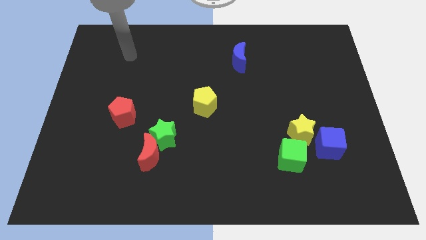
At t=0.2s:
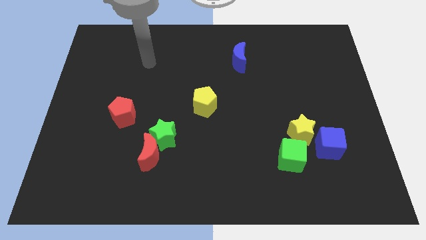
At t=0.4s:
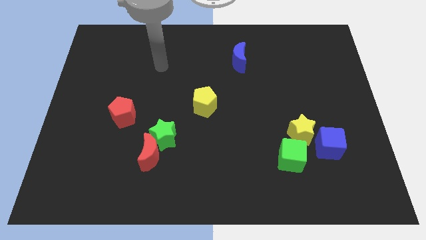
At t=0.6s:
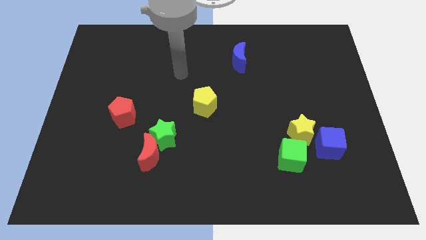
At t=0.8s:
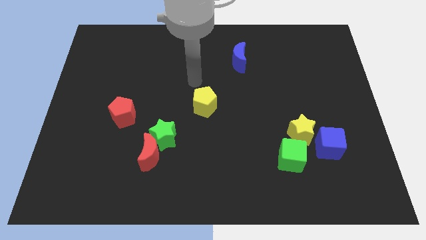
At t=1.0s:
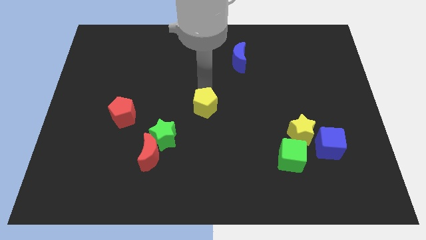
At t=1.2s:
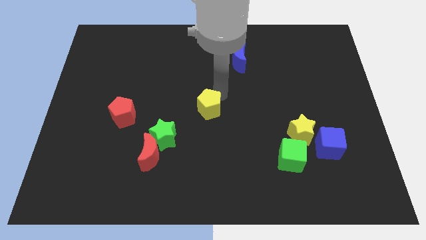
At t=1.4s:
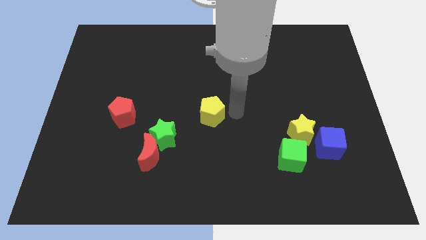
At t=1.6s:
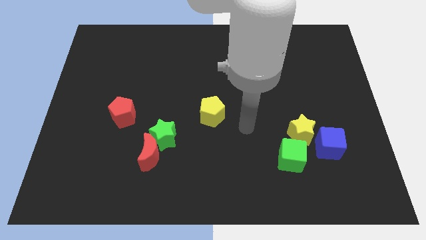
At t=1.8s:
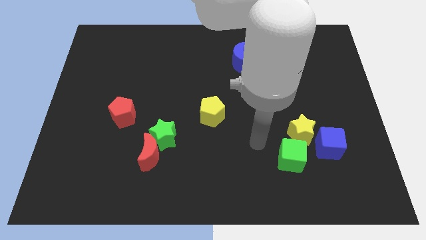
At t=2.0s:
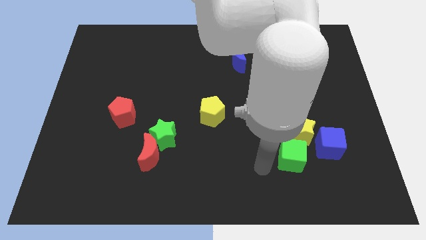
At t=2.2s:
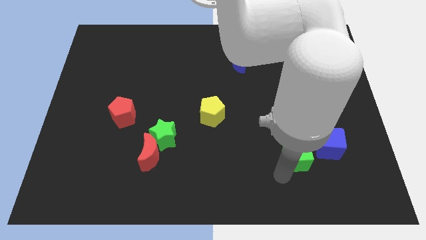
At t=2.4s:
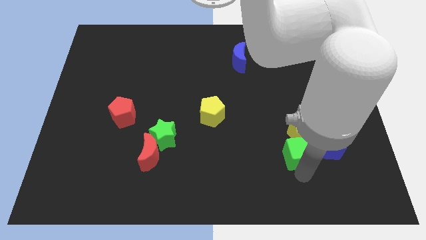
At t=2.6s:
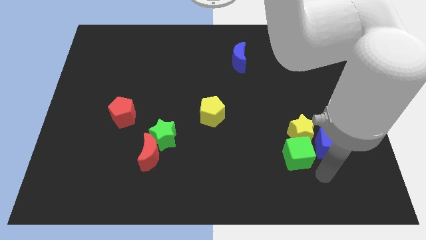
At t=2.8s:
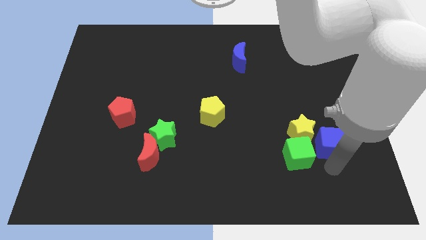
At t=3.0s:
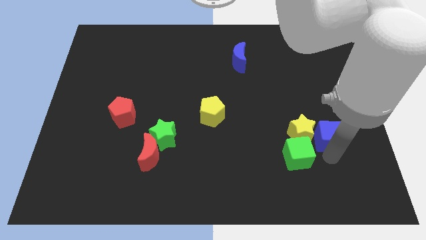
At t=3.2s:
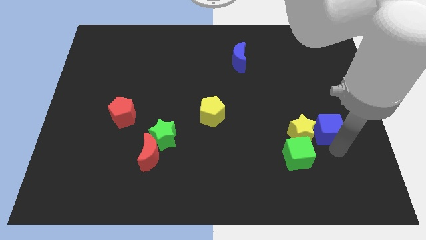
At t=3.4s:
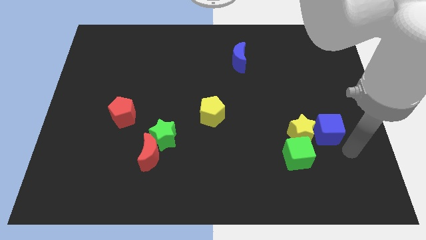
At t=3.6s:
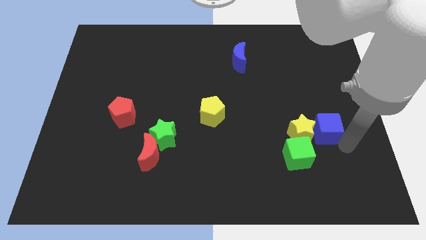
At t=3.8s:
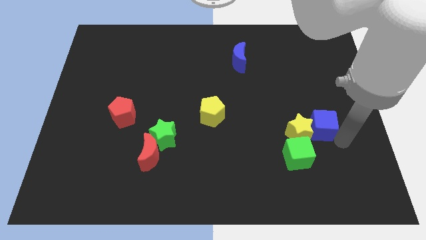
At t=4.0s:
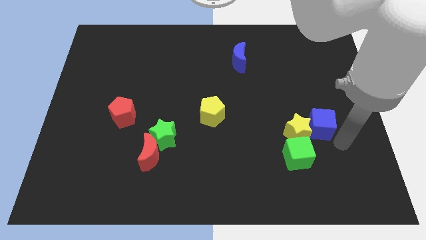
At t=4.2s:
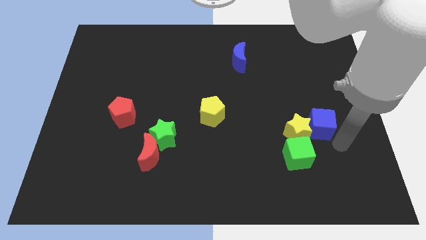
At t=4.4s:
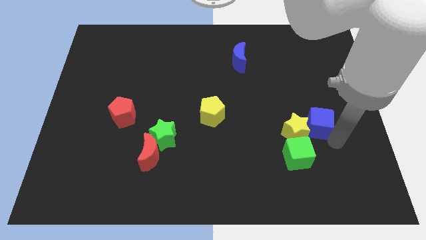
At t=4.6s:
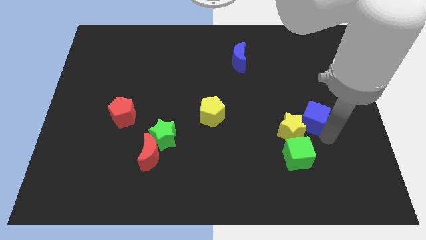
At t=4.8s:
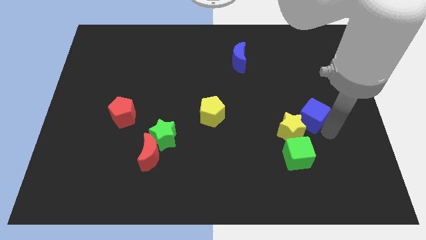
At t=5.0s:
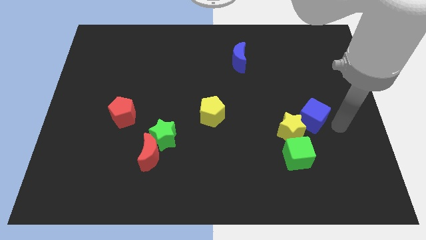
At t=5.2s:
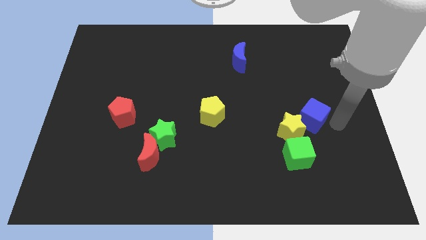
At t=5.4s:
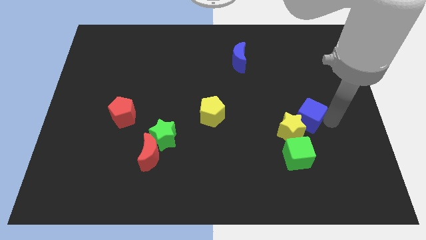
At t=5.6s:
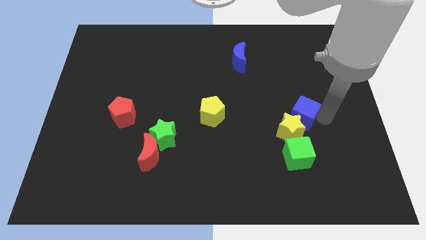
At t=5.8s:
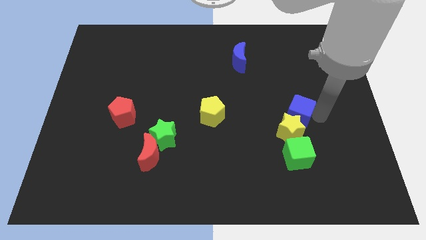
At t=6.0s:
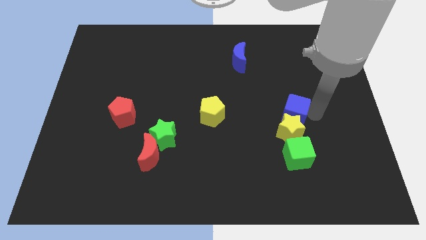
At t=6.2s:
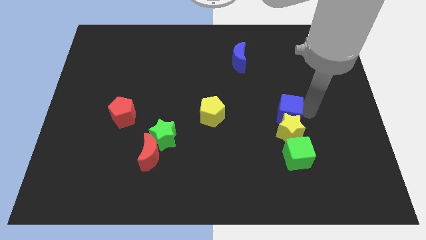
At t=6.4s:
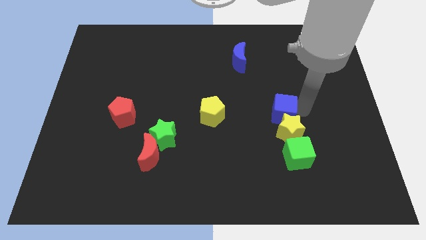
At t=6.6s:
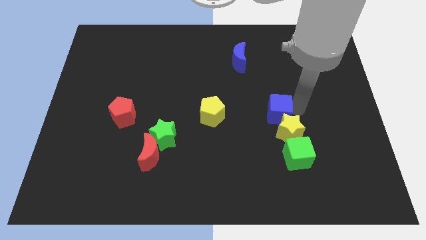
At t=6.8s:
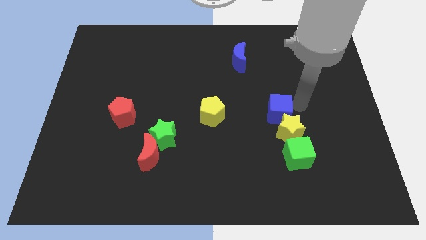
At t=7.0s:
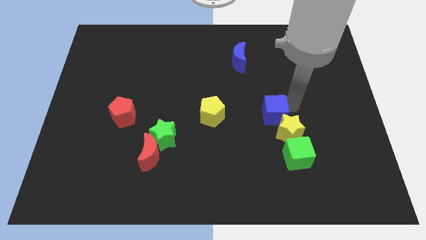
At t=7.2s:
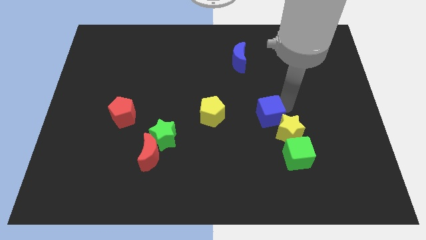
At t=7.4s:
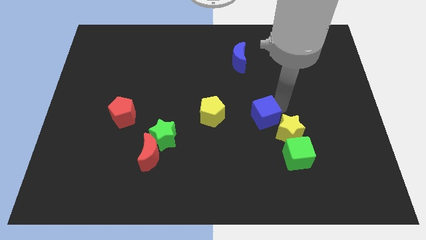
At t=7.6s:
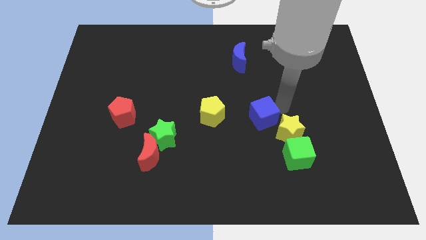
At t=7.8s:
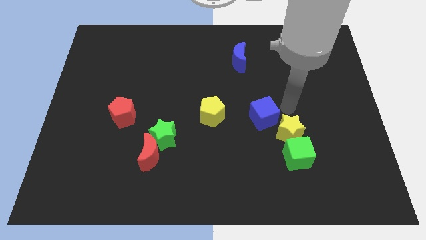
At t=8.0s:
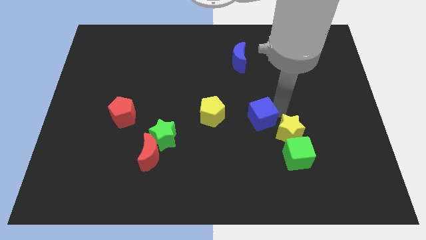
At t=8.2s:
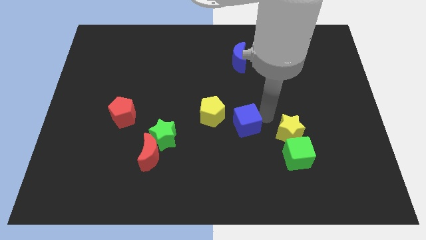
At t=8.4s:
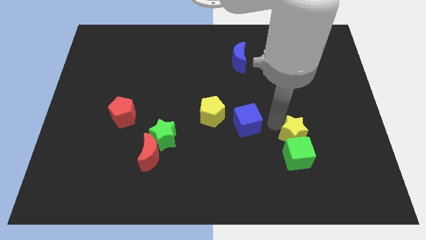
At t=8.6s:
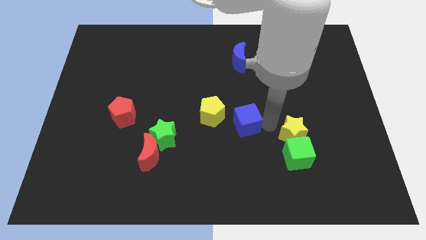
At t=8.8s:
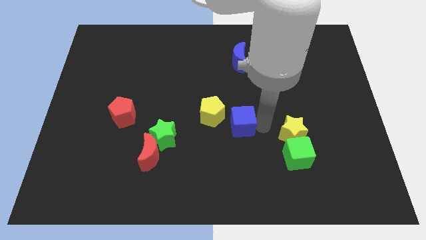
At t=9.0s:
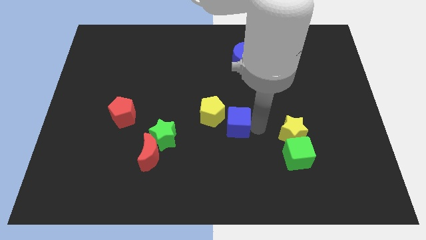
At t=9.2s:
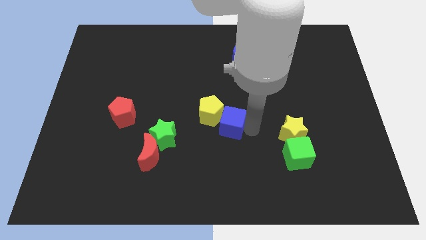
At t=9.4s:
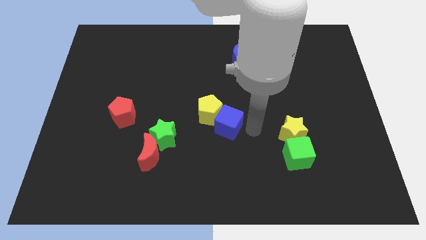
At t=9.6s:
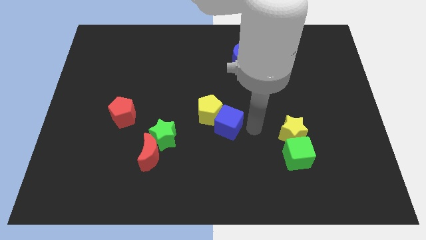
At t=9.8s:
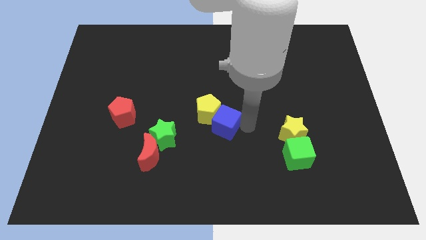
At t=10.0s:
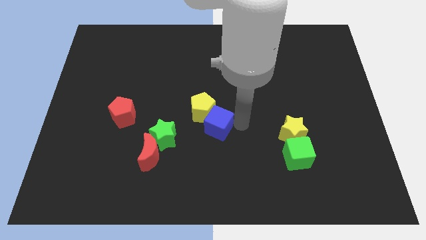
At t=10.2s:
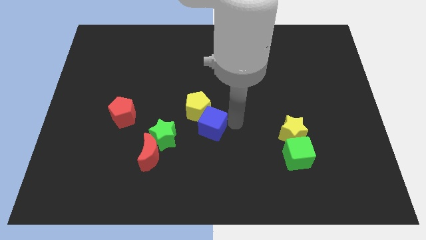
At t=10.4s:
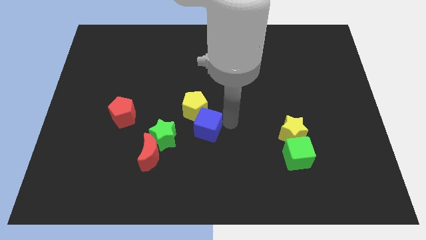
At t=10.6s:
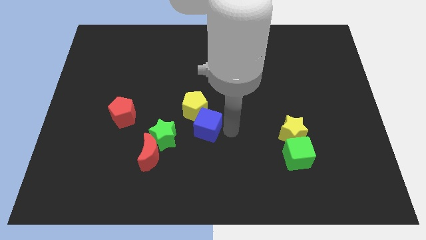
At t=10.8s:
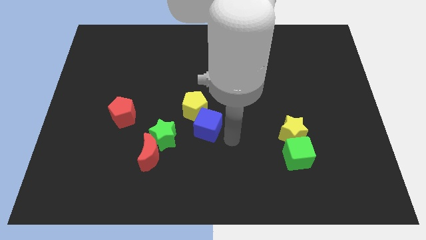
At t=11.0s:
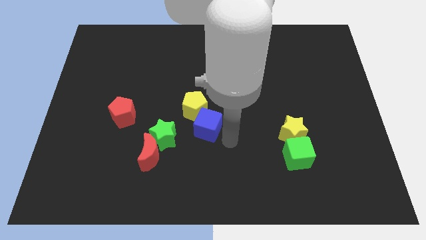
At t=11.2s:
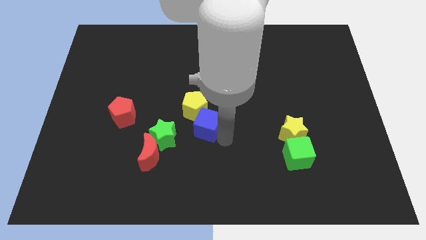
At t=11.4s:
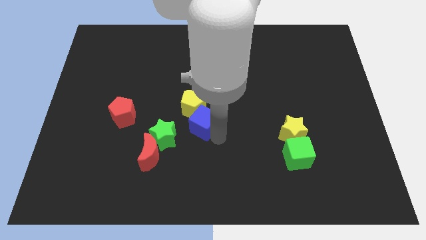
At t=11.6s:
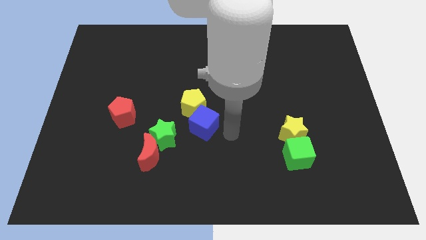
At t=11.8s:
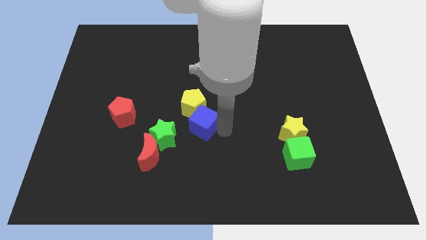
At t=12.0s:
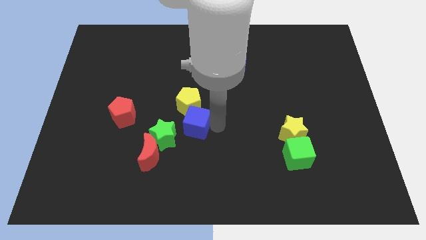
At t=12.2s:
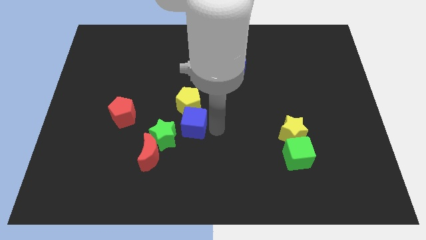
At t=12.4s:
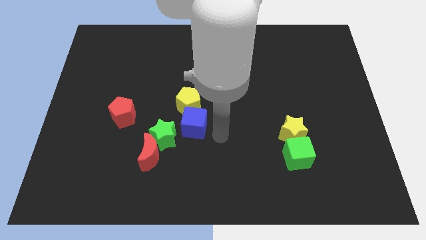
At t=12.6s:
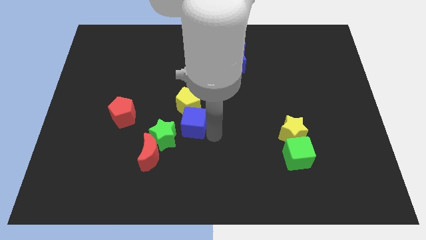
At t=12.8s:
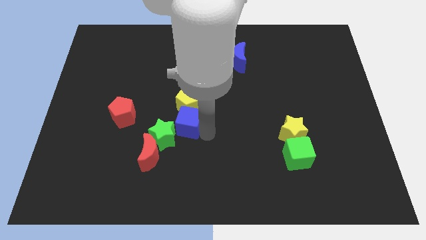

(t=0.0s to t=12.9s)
move the blue cube to the right of the red pentagon

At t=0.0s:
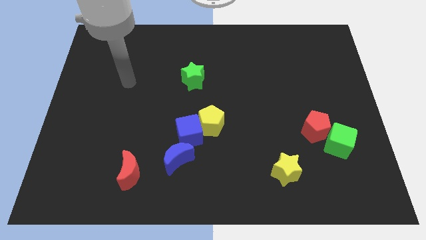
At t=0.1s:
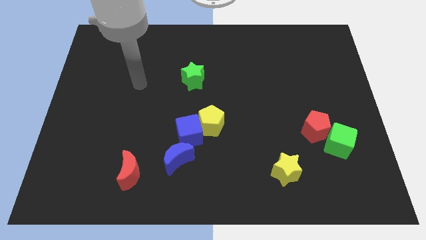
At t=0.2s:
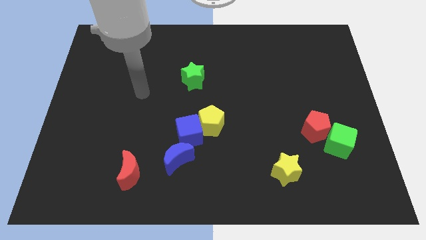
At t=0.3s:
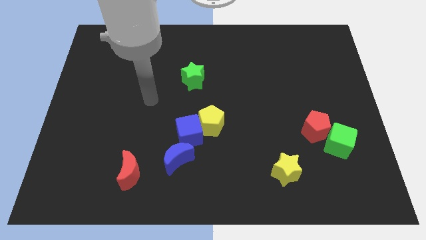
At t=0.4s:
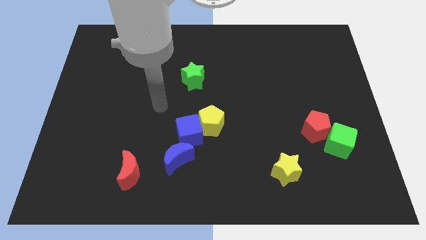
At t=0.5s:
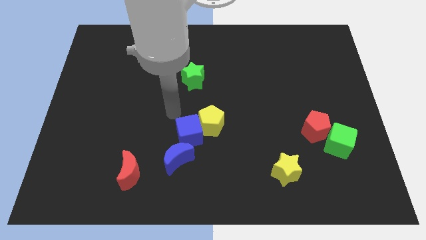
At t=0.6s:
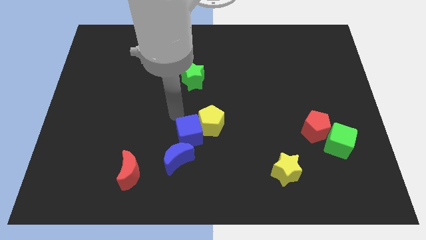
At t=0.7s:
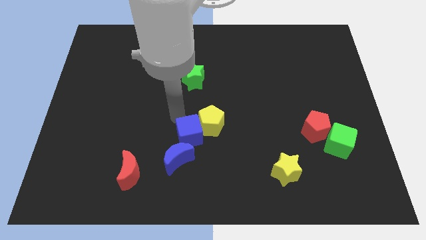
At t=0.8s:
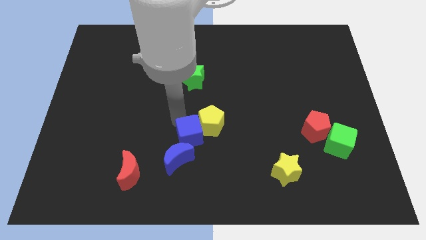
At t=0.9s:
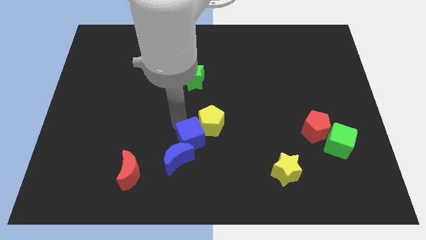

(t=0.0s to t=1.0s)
move the blue cube to the bottom side of the yellow pentagon
